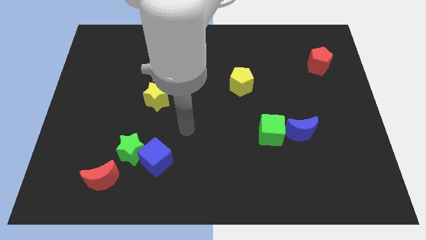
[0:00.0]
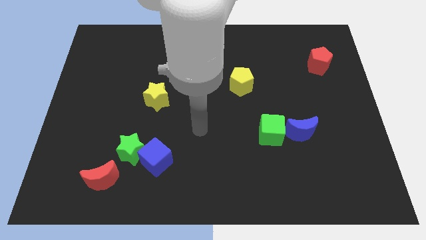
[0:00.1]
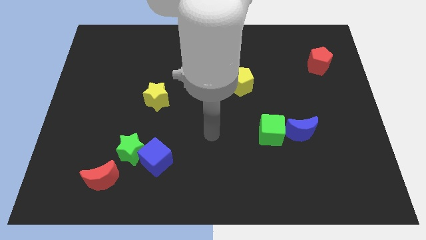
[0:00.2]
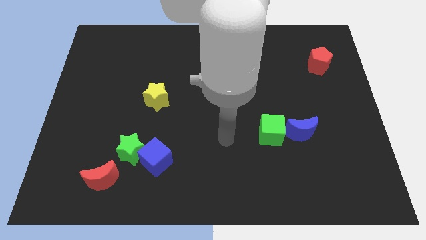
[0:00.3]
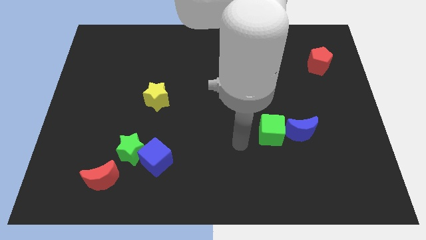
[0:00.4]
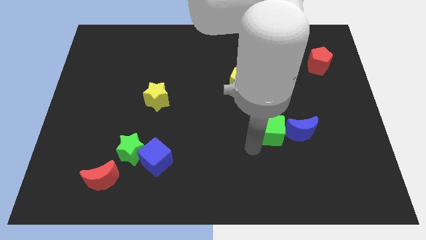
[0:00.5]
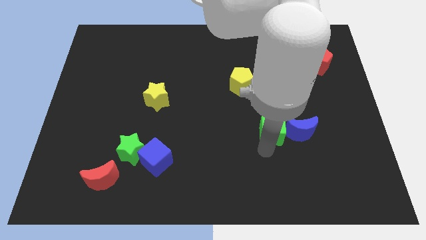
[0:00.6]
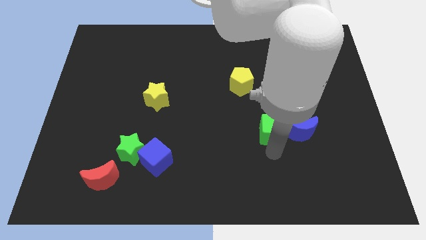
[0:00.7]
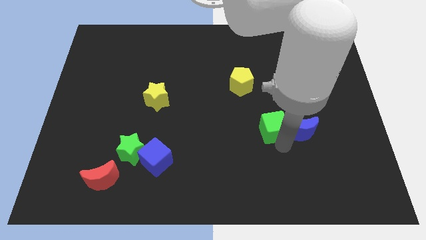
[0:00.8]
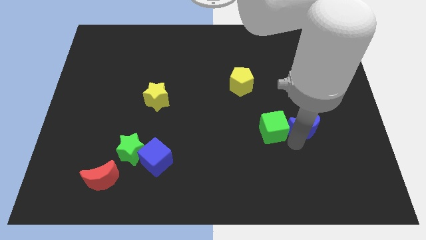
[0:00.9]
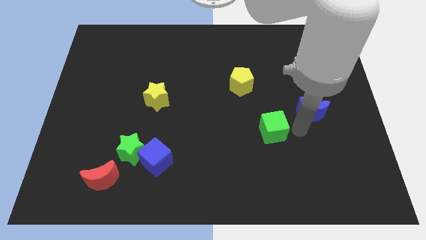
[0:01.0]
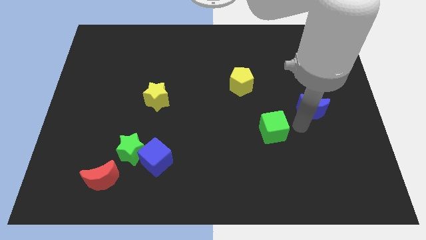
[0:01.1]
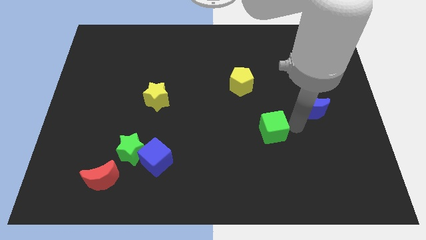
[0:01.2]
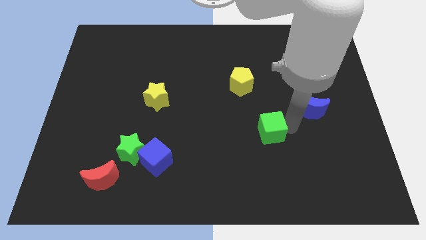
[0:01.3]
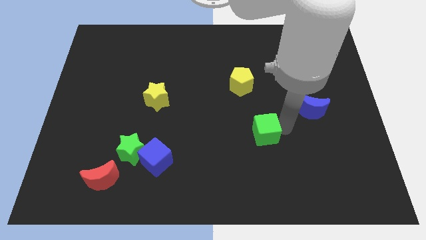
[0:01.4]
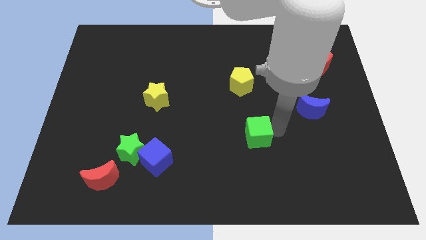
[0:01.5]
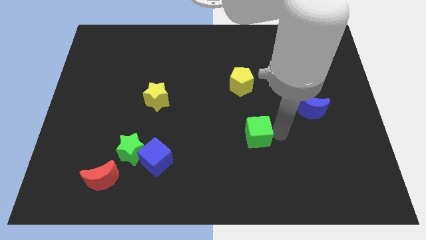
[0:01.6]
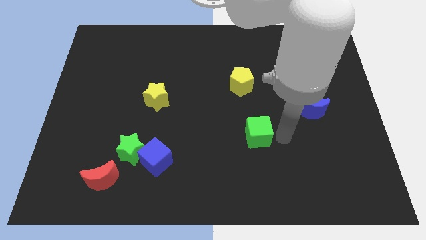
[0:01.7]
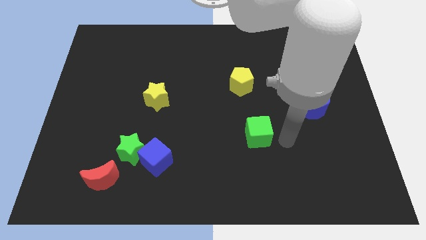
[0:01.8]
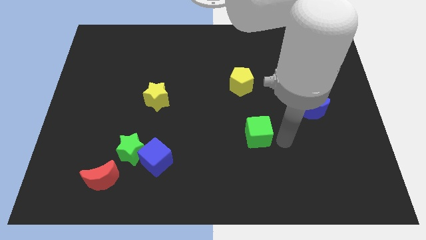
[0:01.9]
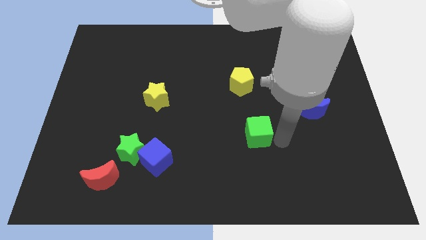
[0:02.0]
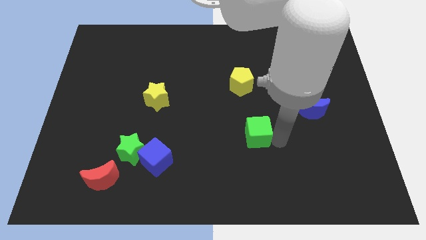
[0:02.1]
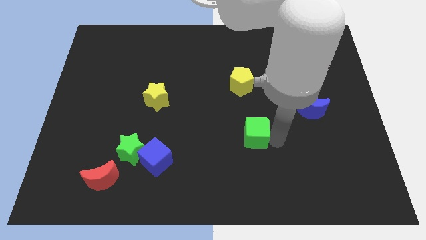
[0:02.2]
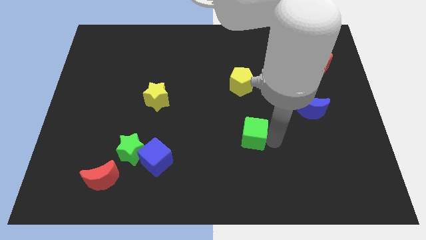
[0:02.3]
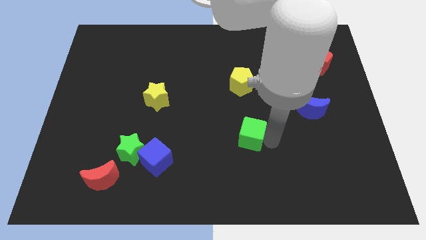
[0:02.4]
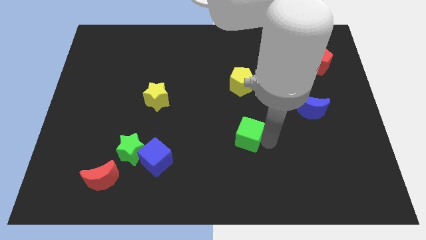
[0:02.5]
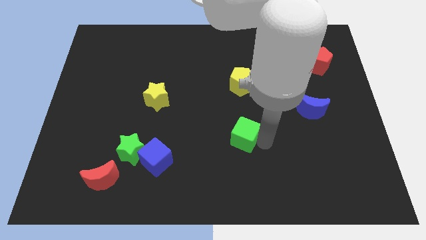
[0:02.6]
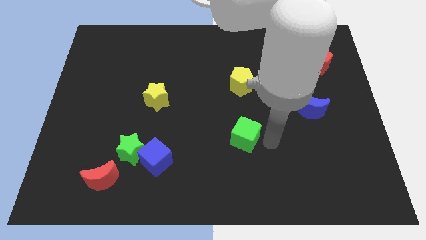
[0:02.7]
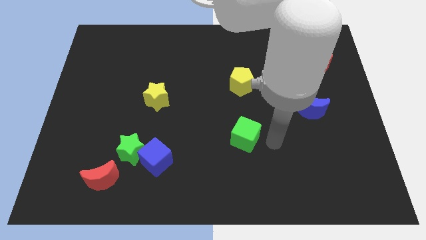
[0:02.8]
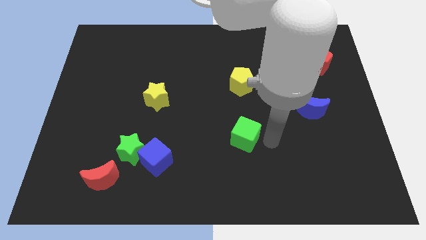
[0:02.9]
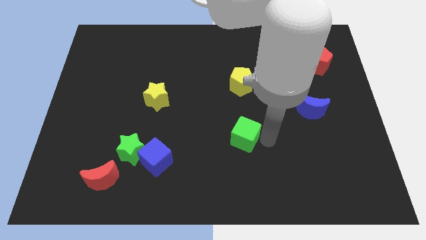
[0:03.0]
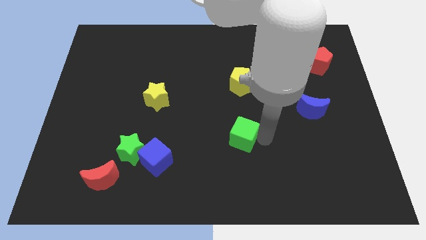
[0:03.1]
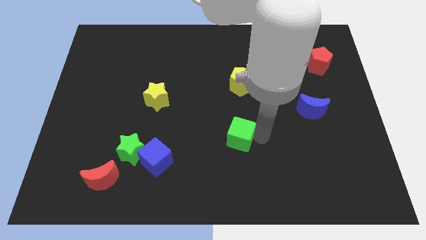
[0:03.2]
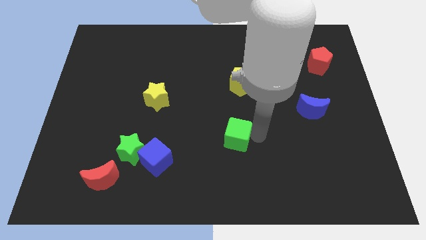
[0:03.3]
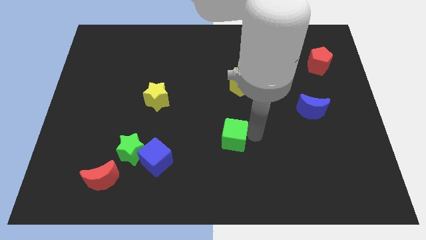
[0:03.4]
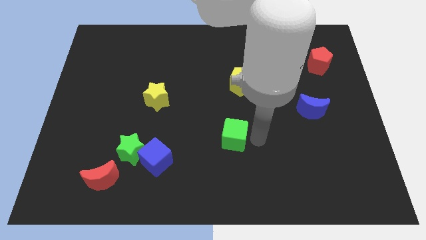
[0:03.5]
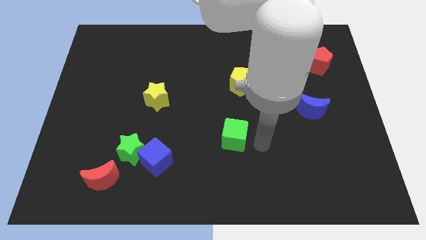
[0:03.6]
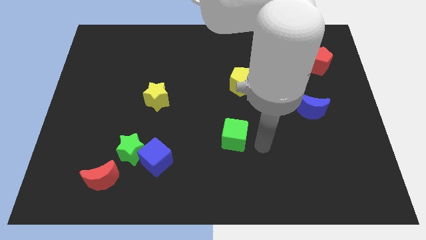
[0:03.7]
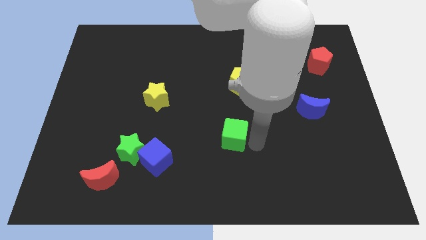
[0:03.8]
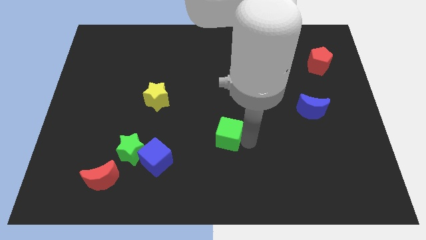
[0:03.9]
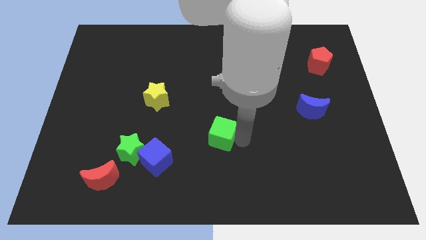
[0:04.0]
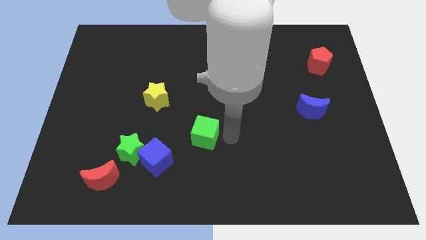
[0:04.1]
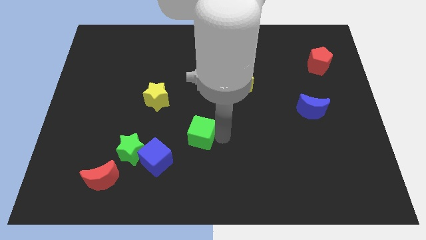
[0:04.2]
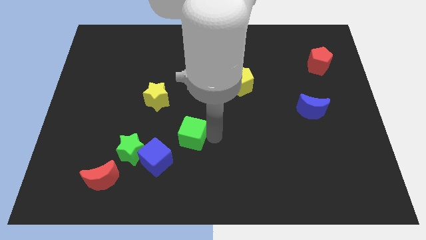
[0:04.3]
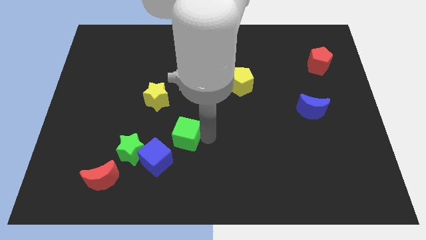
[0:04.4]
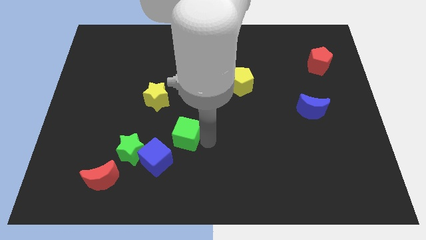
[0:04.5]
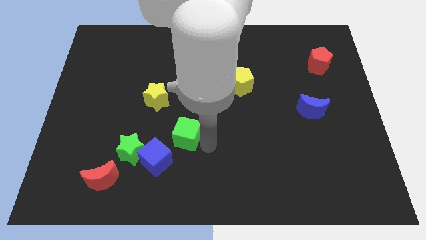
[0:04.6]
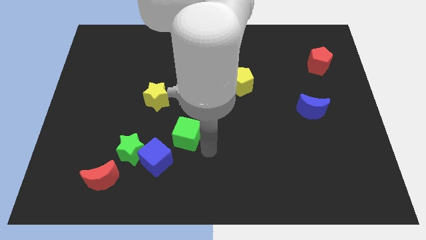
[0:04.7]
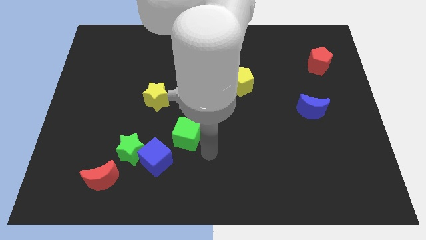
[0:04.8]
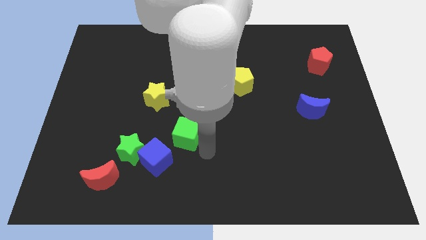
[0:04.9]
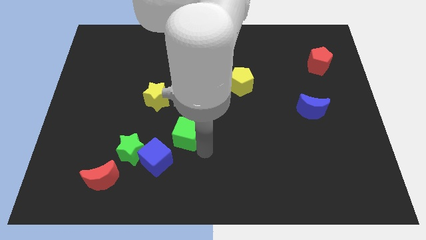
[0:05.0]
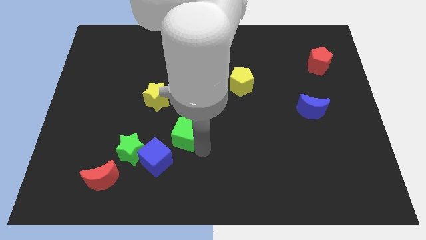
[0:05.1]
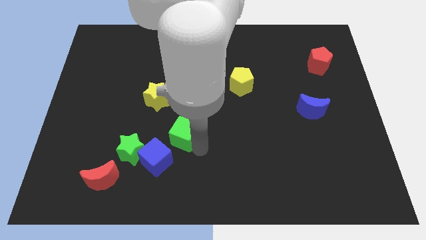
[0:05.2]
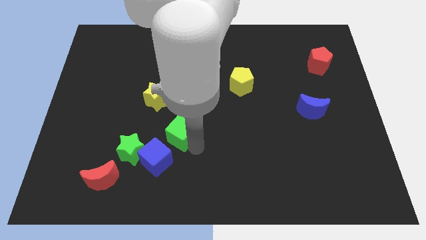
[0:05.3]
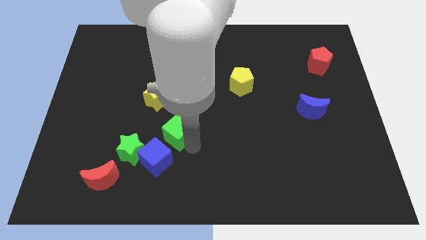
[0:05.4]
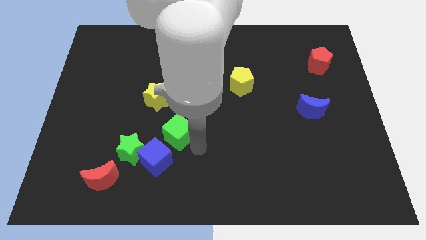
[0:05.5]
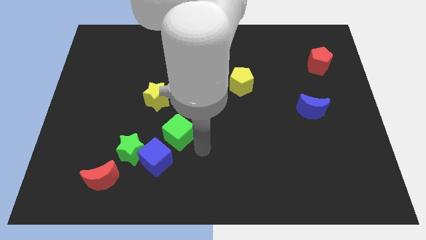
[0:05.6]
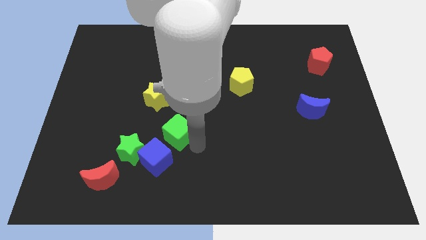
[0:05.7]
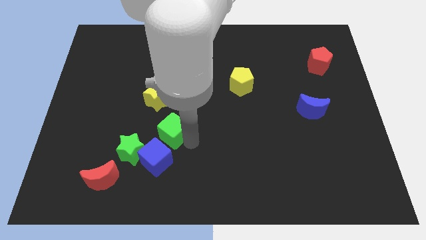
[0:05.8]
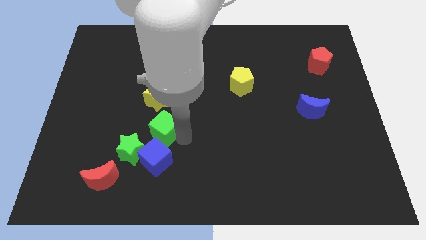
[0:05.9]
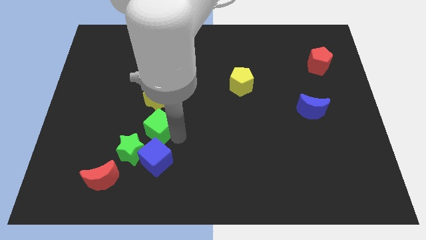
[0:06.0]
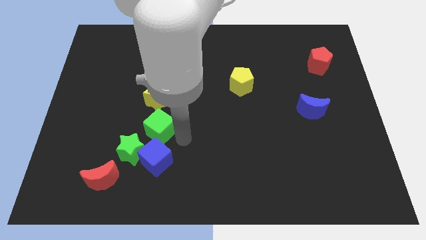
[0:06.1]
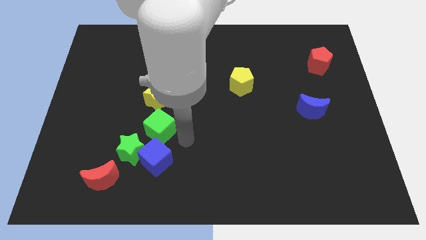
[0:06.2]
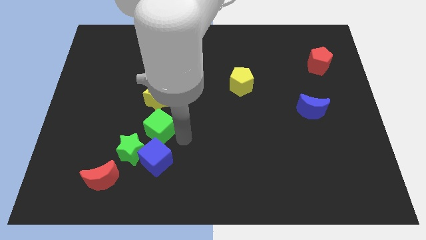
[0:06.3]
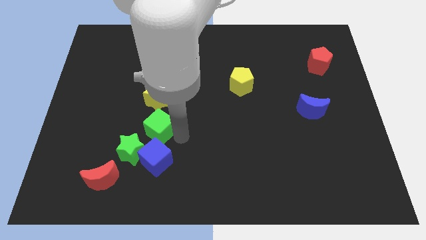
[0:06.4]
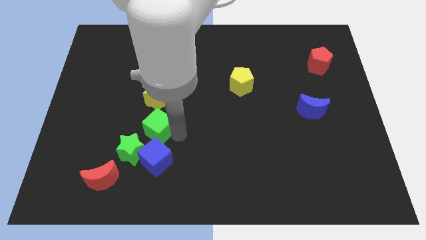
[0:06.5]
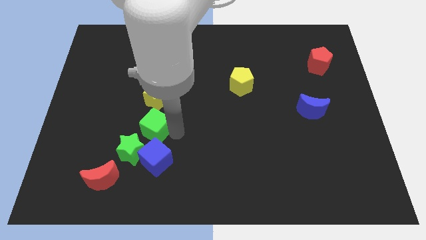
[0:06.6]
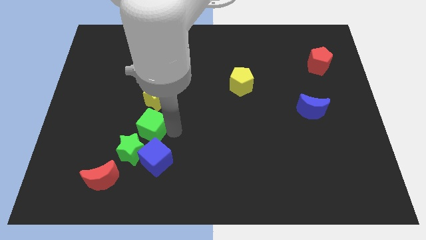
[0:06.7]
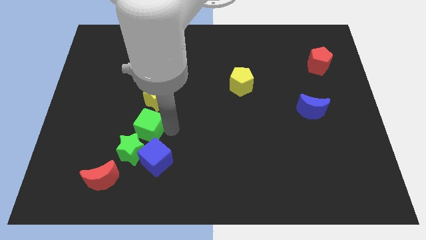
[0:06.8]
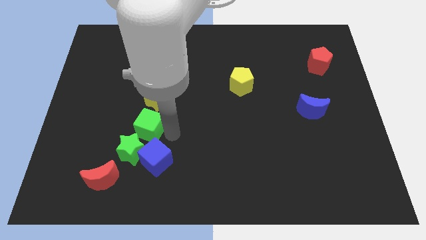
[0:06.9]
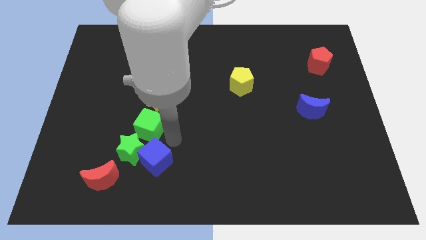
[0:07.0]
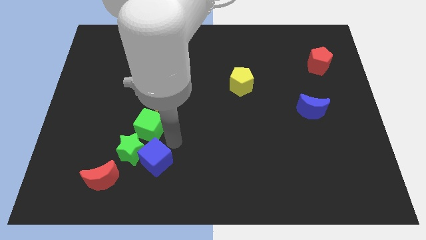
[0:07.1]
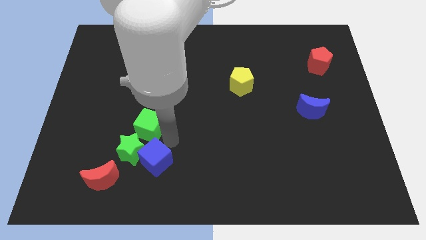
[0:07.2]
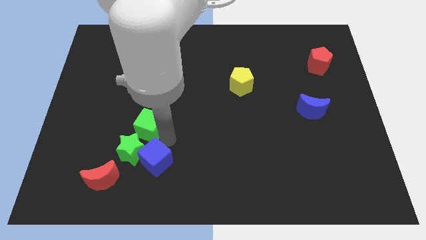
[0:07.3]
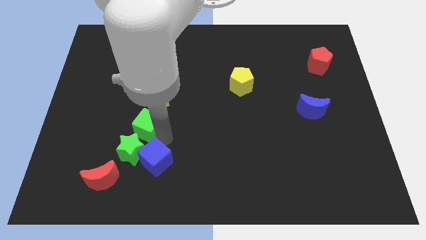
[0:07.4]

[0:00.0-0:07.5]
put the green cube to the bottom left side of the yellow star

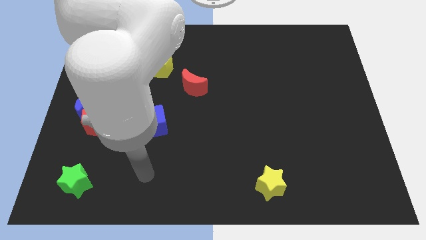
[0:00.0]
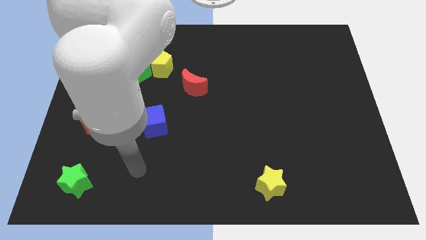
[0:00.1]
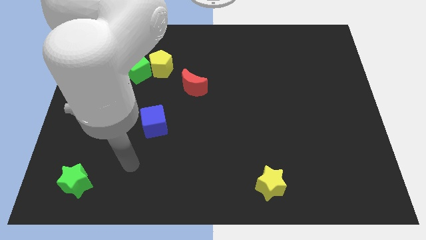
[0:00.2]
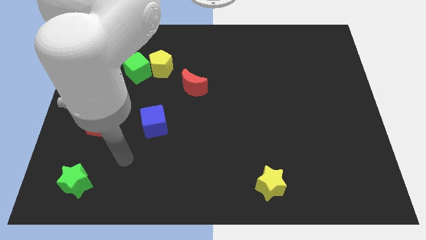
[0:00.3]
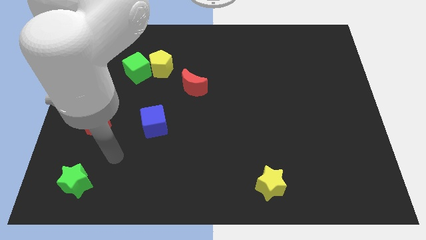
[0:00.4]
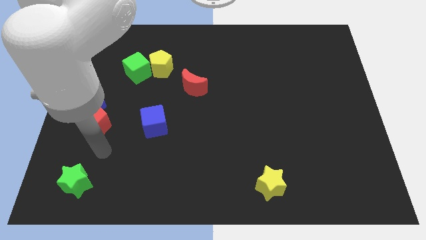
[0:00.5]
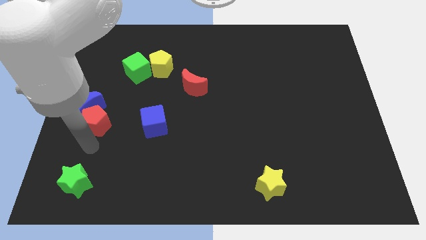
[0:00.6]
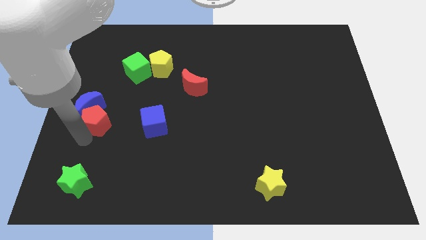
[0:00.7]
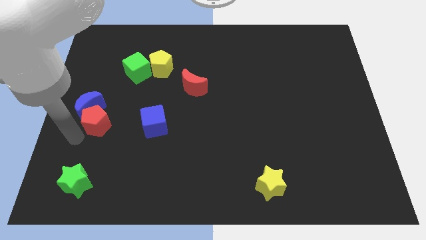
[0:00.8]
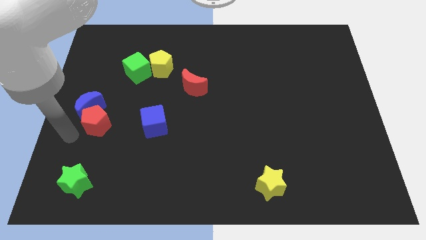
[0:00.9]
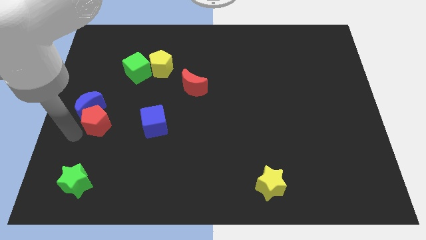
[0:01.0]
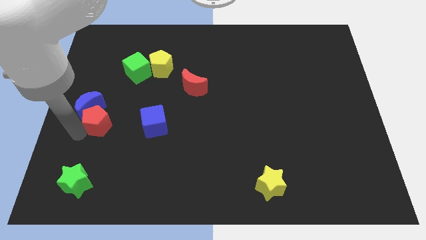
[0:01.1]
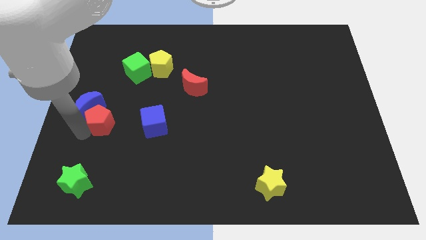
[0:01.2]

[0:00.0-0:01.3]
move the red pentagon to the right side of the blue moon
